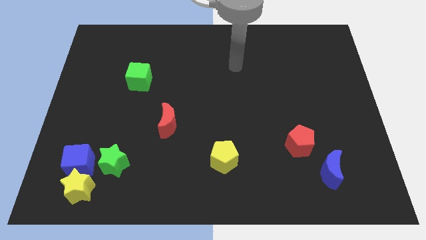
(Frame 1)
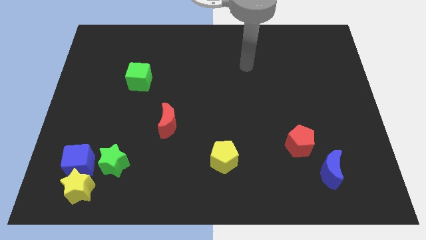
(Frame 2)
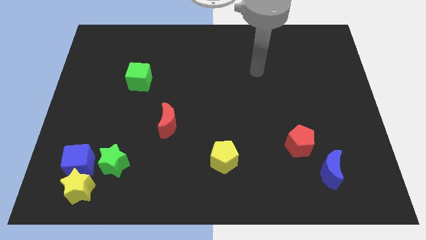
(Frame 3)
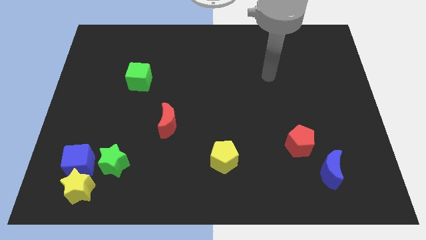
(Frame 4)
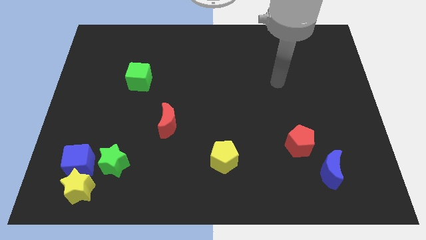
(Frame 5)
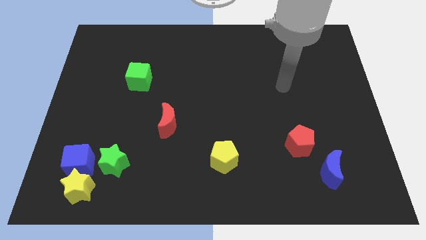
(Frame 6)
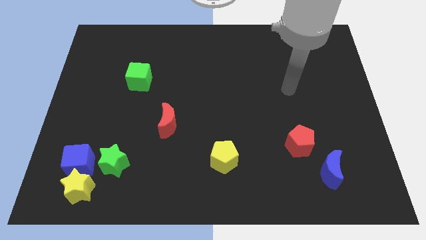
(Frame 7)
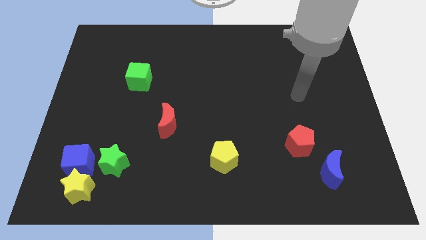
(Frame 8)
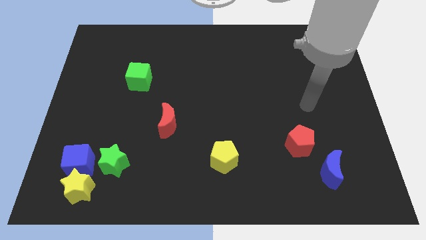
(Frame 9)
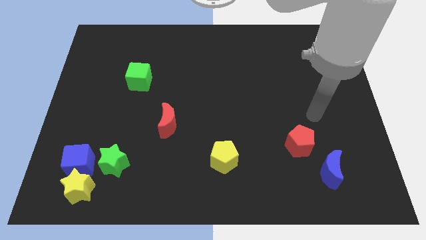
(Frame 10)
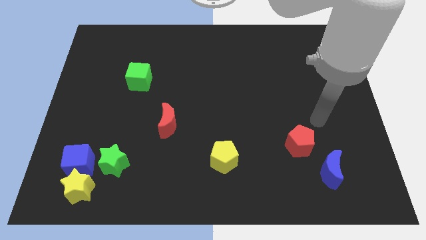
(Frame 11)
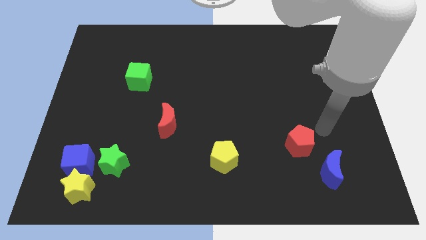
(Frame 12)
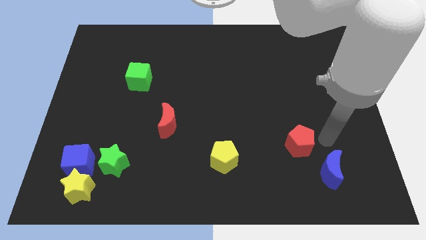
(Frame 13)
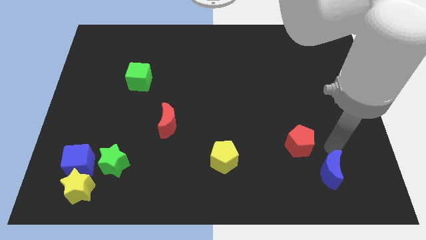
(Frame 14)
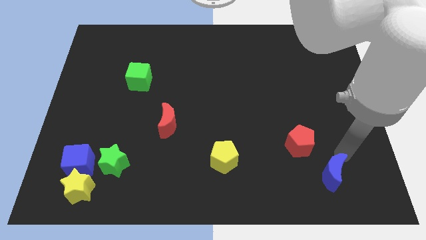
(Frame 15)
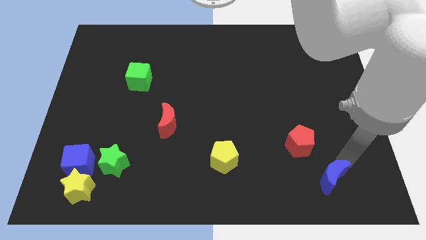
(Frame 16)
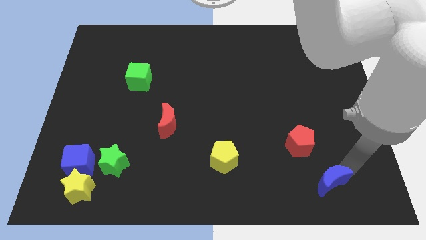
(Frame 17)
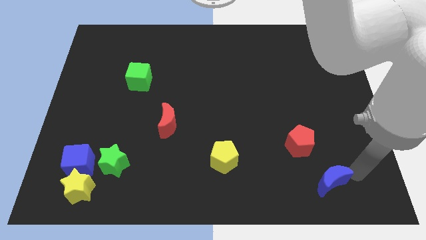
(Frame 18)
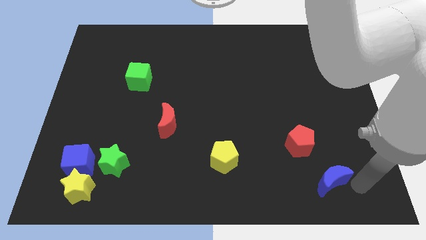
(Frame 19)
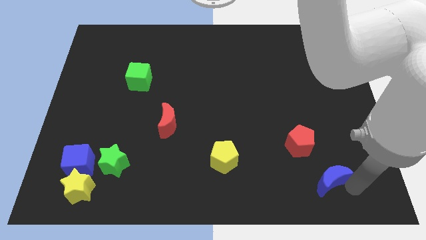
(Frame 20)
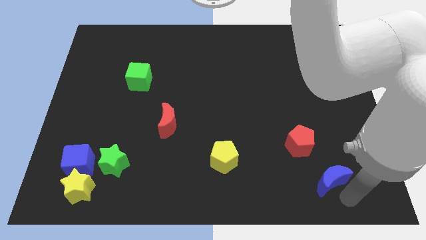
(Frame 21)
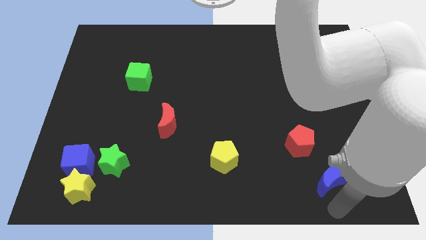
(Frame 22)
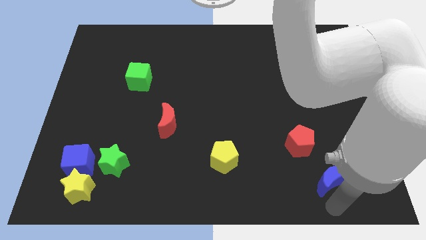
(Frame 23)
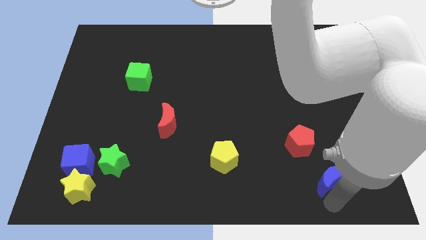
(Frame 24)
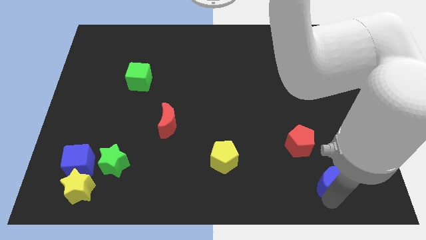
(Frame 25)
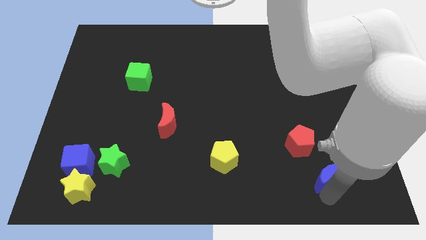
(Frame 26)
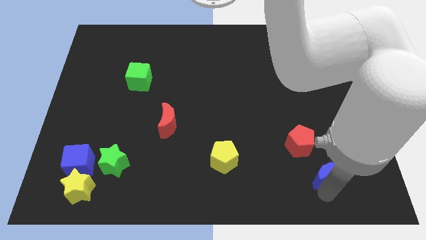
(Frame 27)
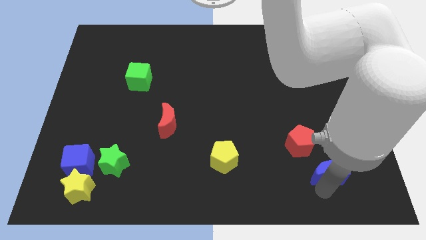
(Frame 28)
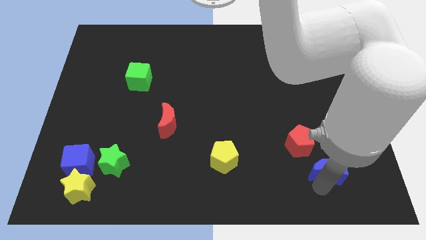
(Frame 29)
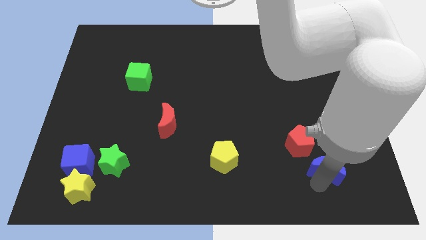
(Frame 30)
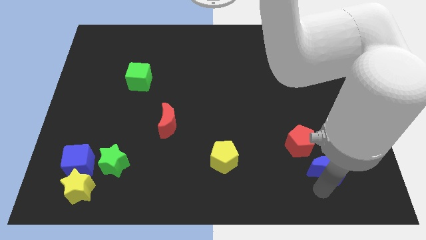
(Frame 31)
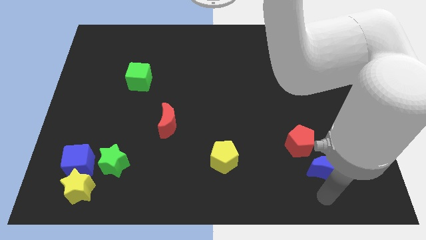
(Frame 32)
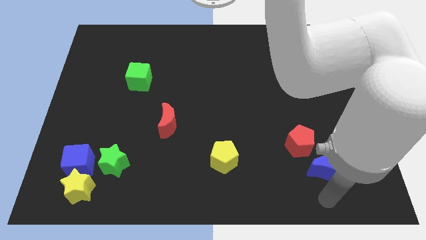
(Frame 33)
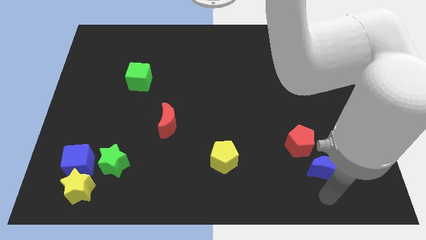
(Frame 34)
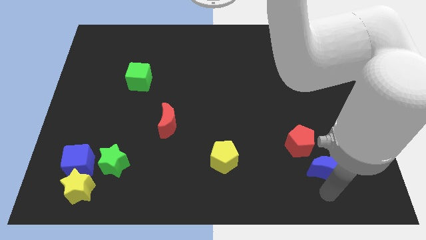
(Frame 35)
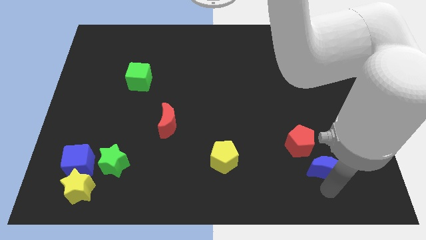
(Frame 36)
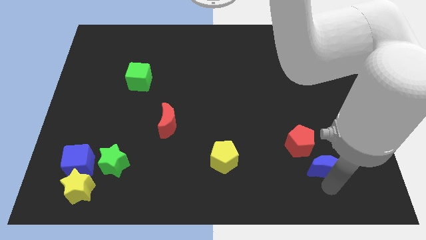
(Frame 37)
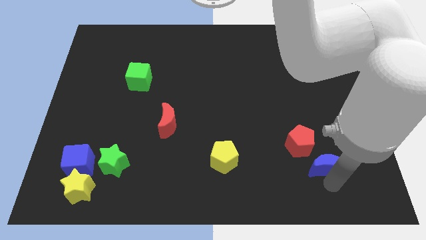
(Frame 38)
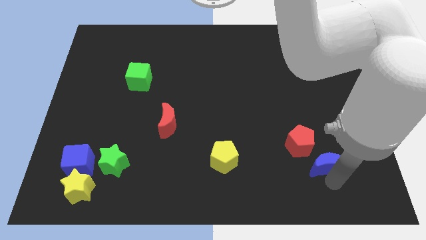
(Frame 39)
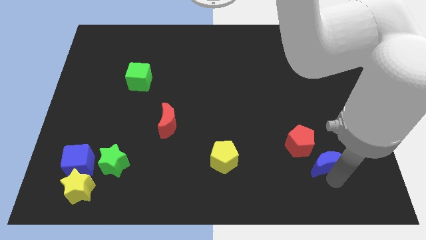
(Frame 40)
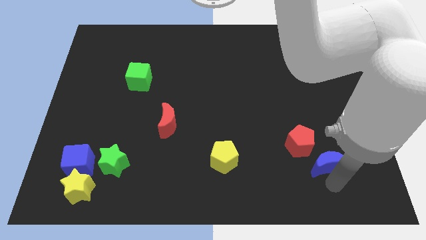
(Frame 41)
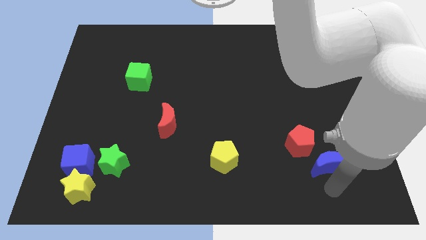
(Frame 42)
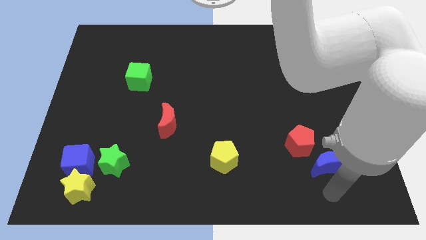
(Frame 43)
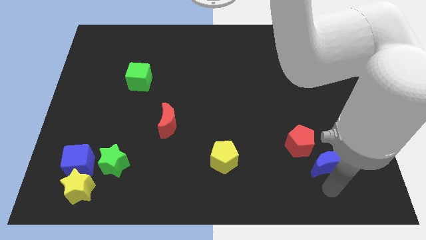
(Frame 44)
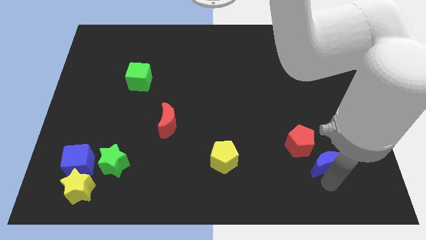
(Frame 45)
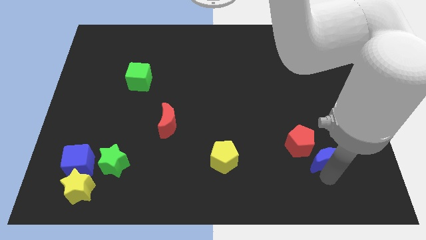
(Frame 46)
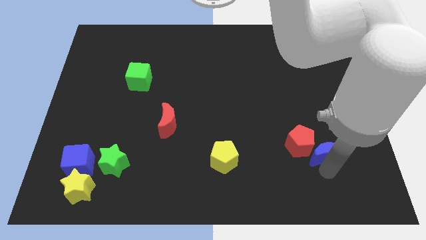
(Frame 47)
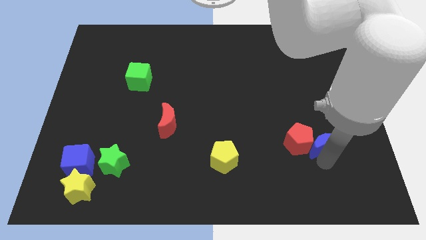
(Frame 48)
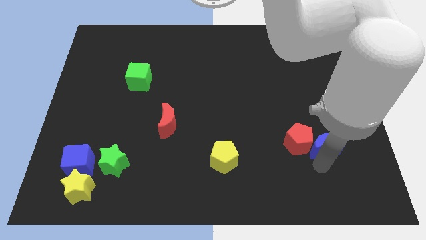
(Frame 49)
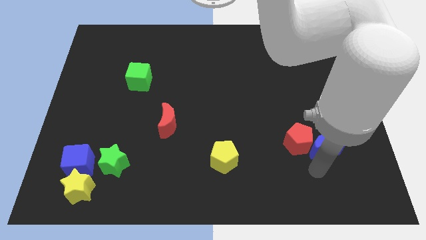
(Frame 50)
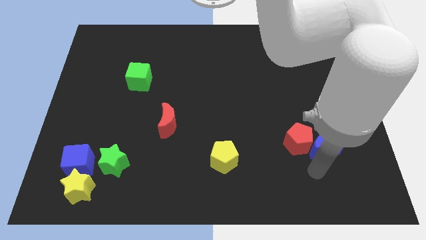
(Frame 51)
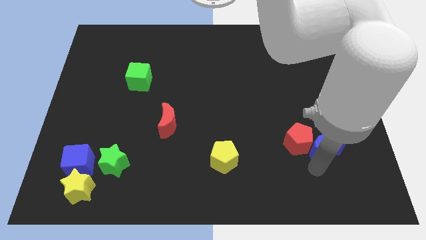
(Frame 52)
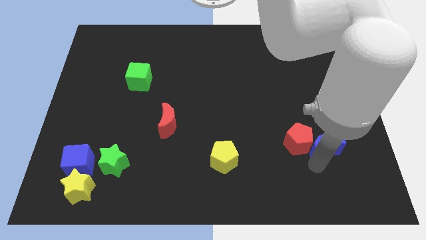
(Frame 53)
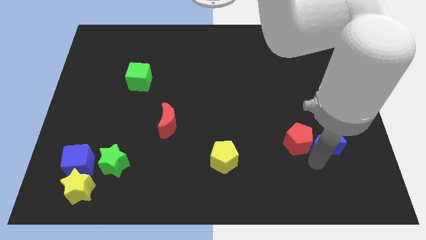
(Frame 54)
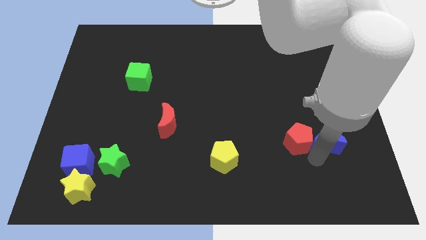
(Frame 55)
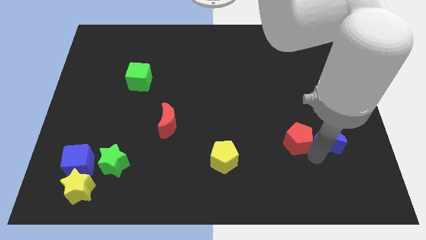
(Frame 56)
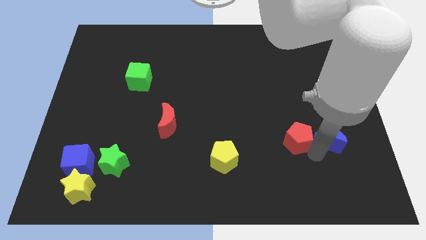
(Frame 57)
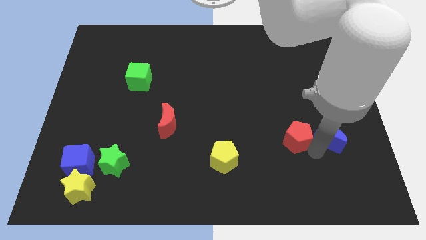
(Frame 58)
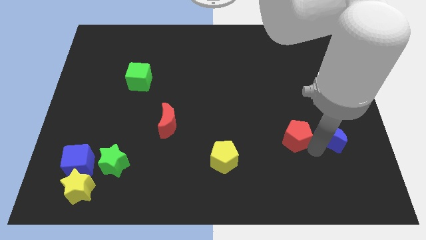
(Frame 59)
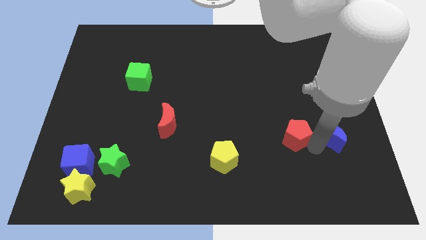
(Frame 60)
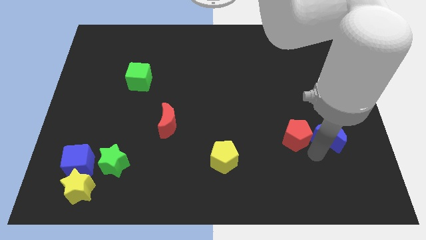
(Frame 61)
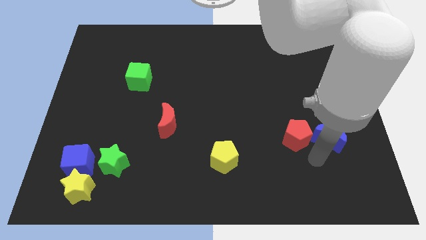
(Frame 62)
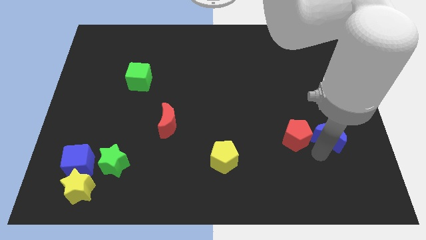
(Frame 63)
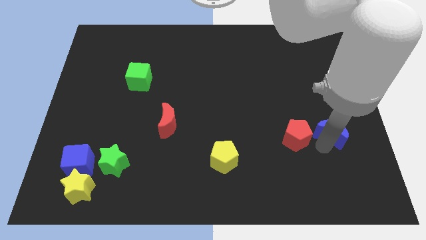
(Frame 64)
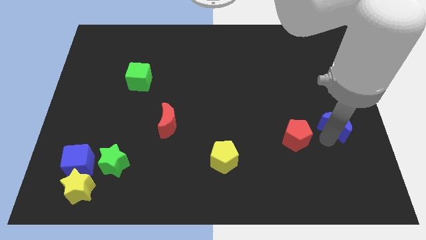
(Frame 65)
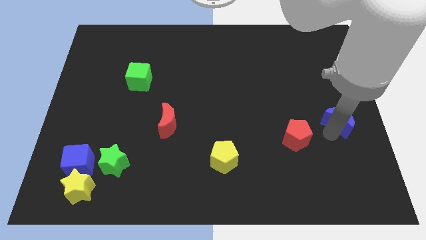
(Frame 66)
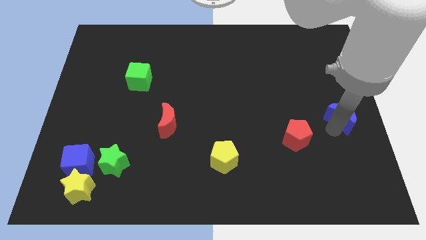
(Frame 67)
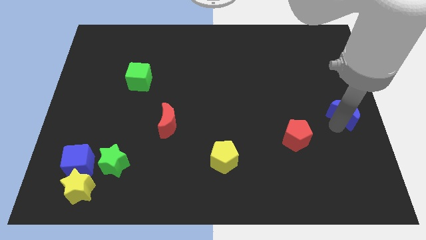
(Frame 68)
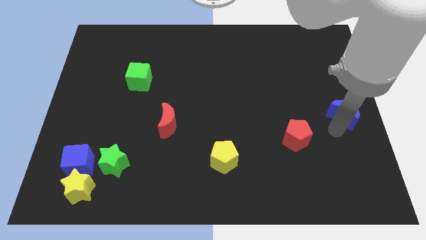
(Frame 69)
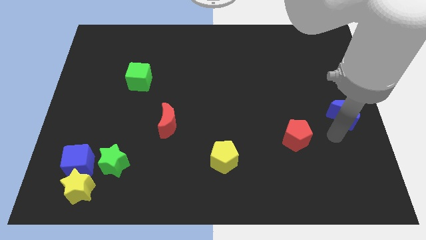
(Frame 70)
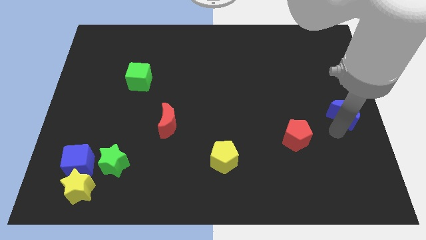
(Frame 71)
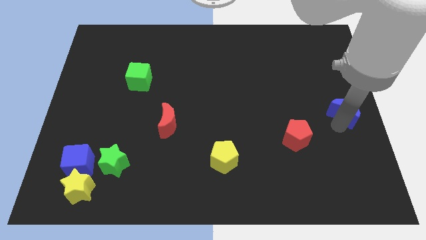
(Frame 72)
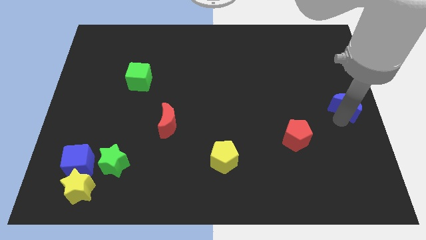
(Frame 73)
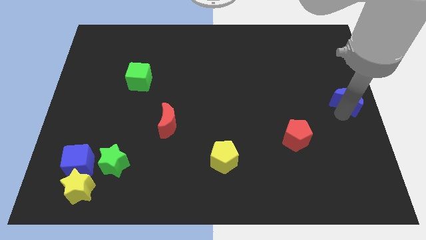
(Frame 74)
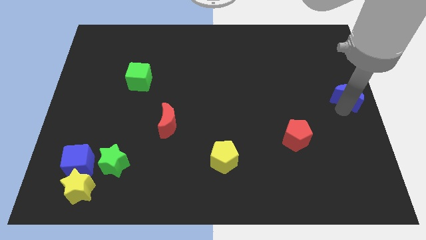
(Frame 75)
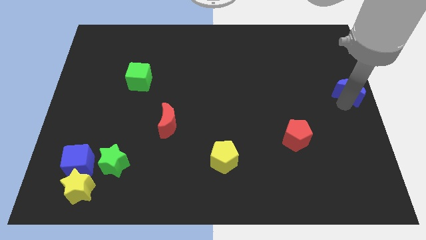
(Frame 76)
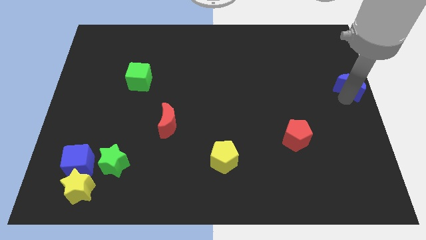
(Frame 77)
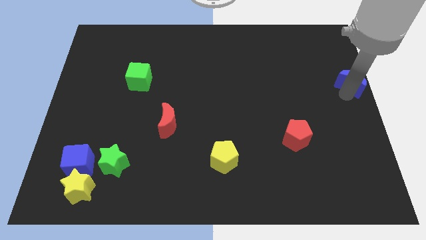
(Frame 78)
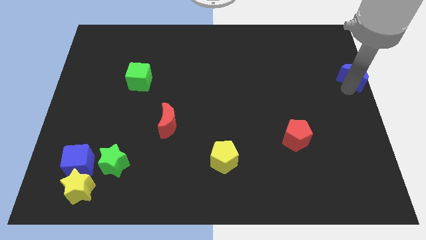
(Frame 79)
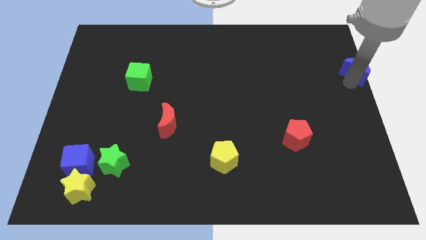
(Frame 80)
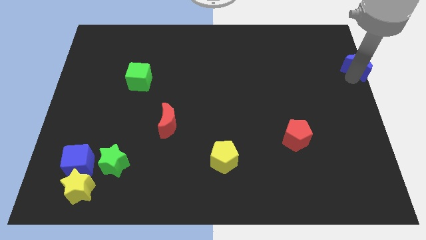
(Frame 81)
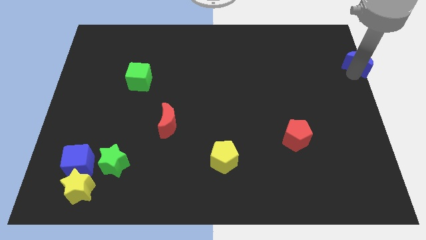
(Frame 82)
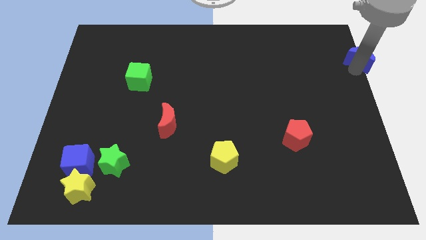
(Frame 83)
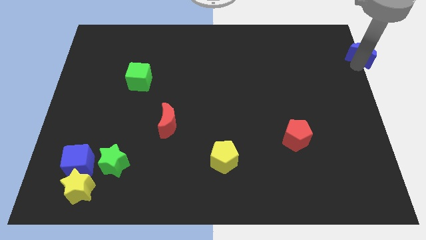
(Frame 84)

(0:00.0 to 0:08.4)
slide the blue moon to the top right
